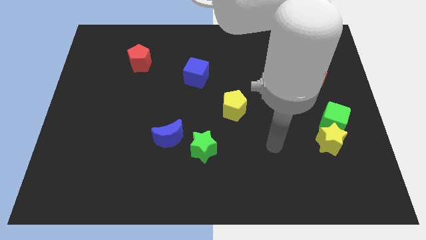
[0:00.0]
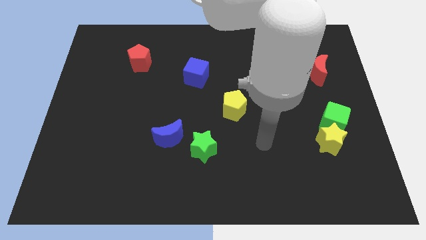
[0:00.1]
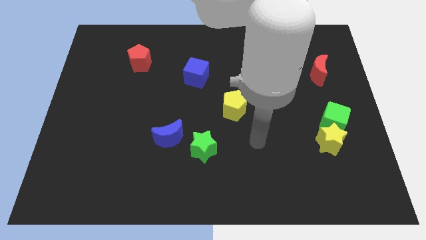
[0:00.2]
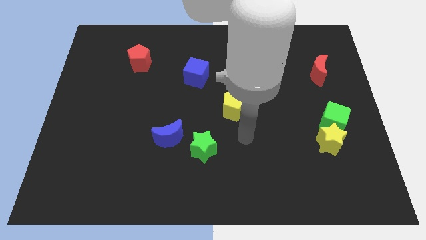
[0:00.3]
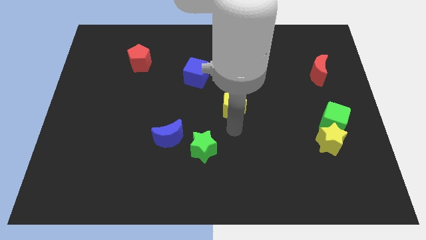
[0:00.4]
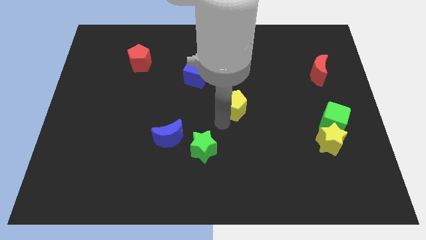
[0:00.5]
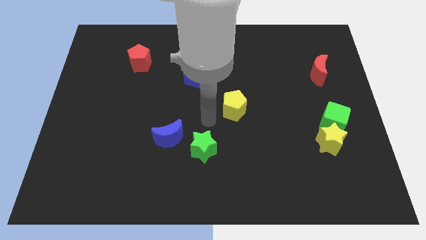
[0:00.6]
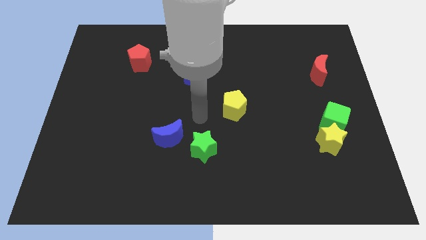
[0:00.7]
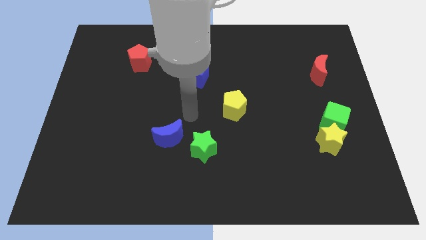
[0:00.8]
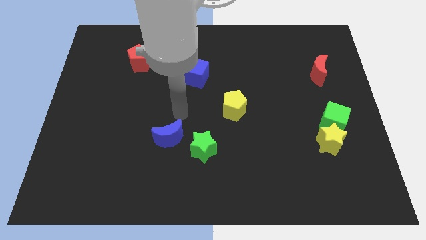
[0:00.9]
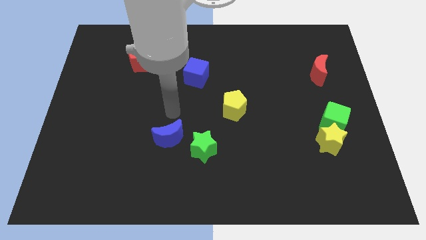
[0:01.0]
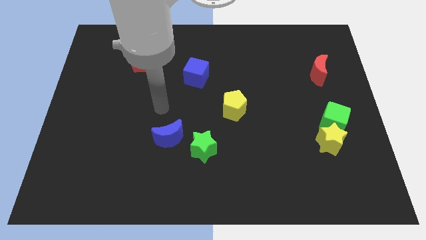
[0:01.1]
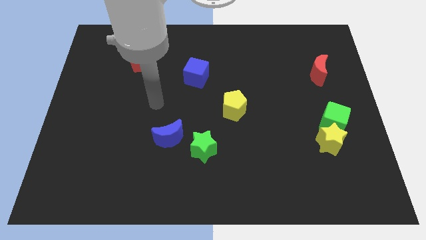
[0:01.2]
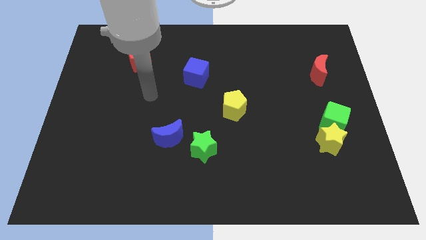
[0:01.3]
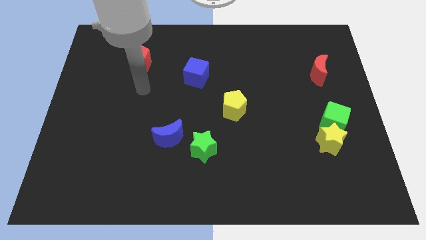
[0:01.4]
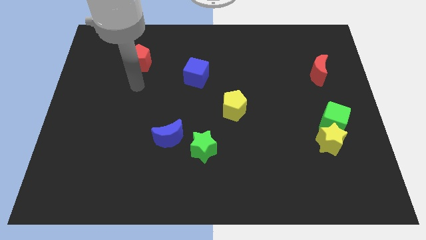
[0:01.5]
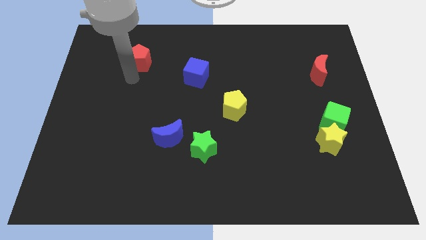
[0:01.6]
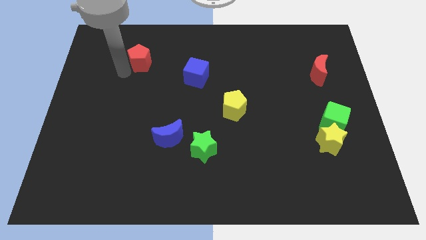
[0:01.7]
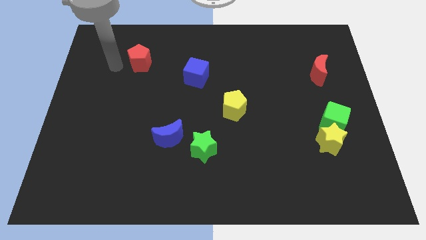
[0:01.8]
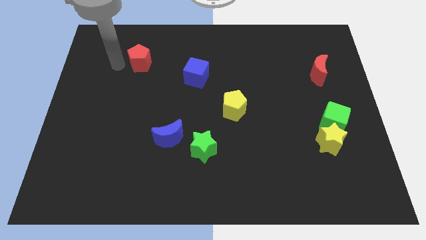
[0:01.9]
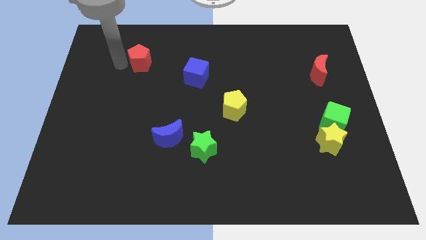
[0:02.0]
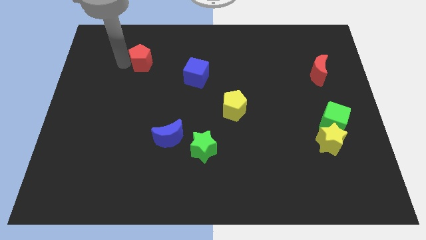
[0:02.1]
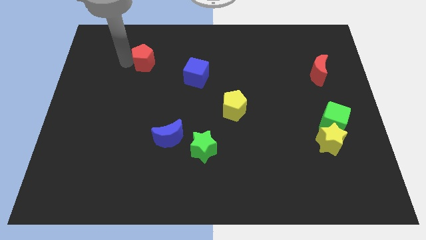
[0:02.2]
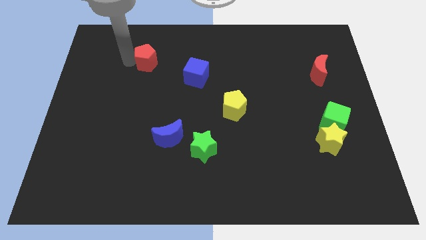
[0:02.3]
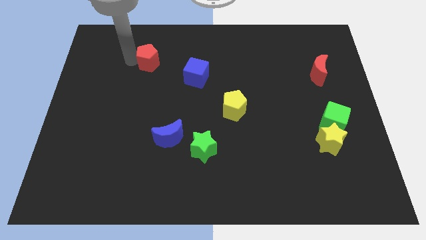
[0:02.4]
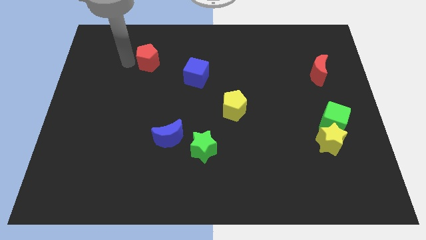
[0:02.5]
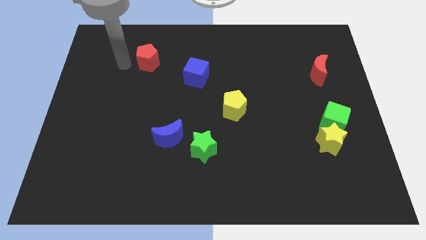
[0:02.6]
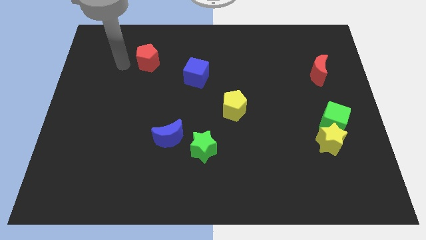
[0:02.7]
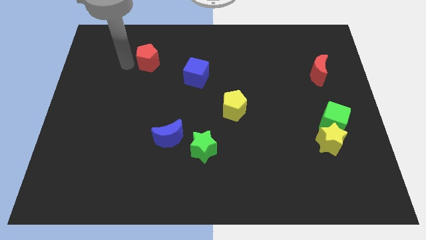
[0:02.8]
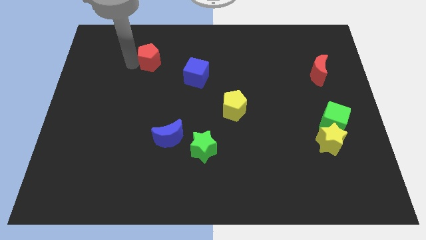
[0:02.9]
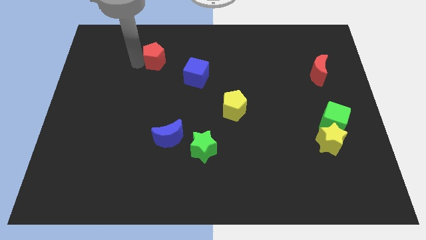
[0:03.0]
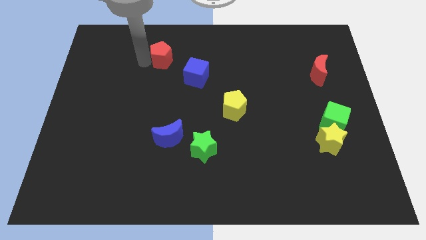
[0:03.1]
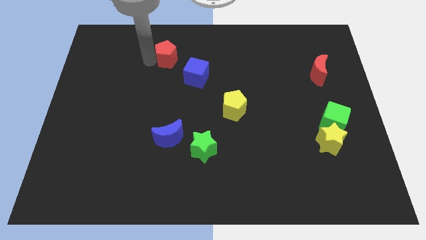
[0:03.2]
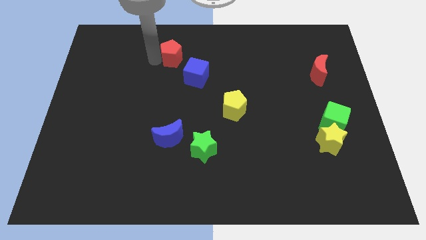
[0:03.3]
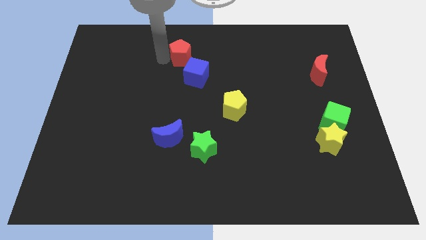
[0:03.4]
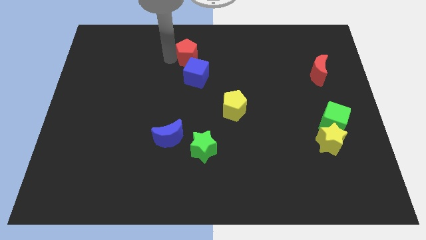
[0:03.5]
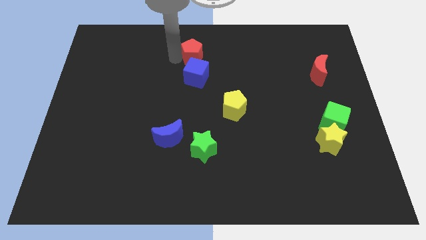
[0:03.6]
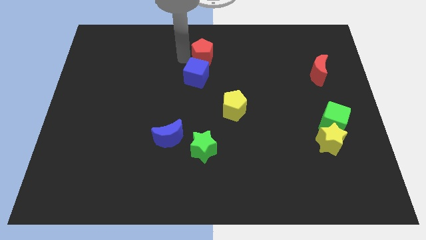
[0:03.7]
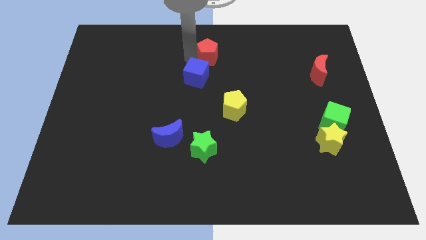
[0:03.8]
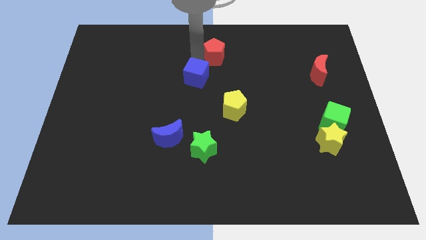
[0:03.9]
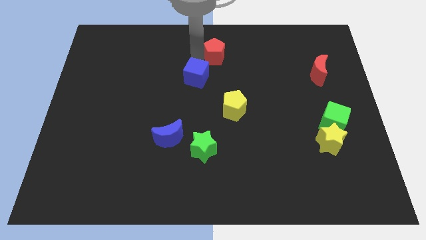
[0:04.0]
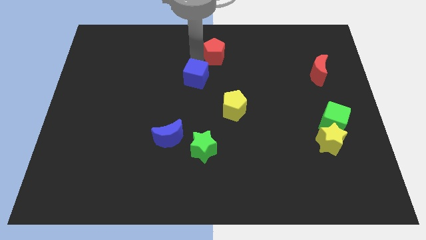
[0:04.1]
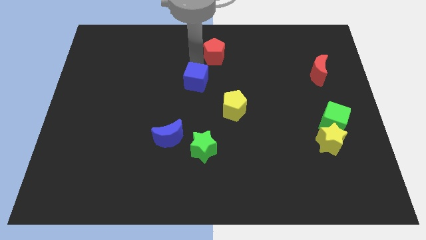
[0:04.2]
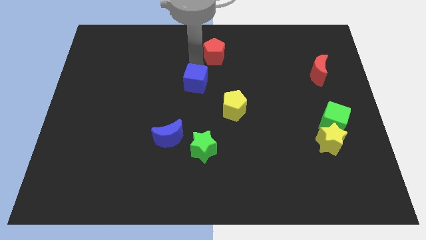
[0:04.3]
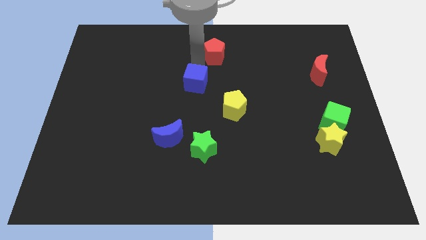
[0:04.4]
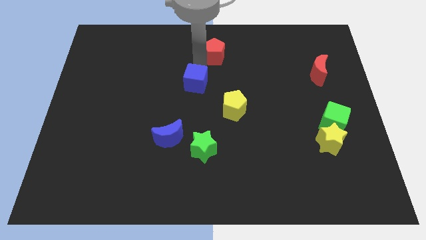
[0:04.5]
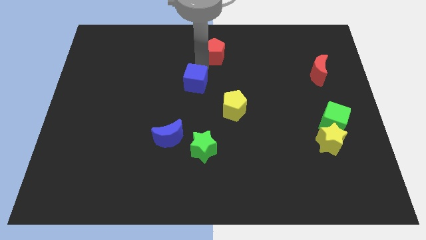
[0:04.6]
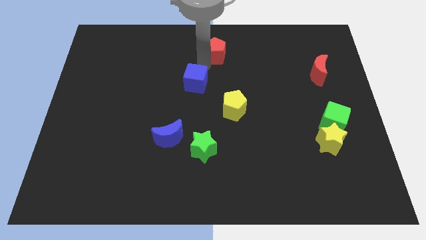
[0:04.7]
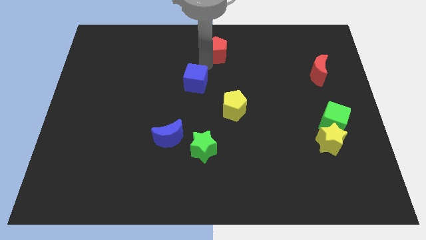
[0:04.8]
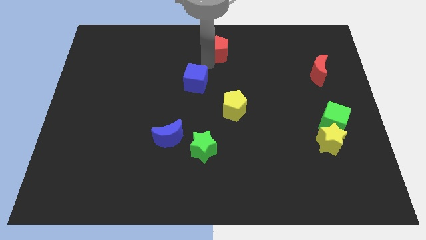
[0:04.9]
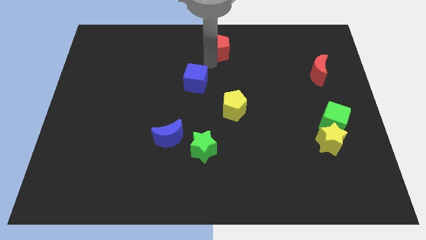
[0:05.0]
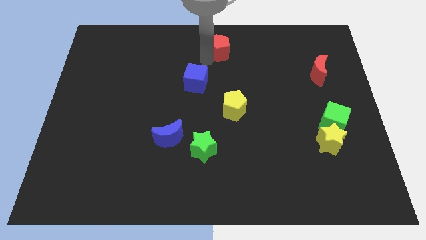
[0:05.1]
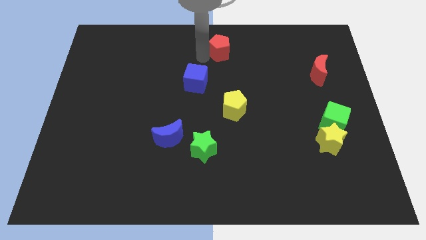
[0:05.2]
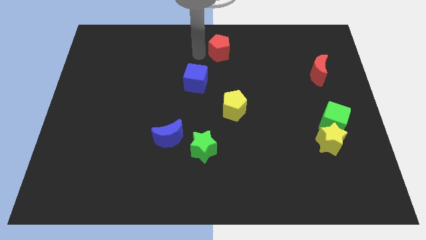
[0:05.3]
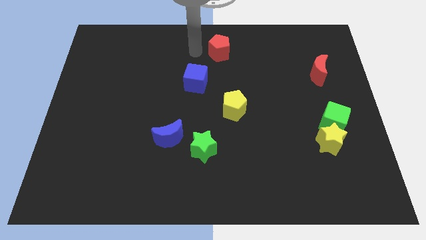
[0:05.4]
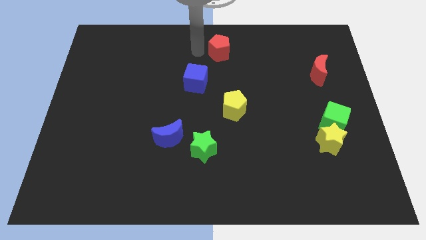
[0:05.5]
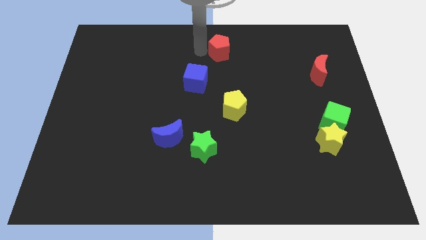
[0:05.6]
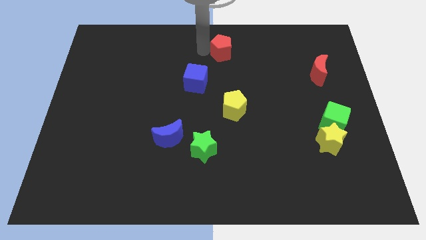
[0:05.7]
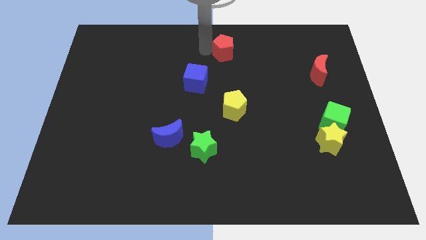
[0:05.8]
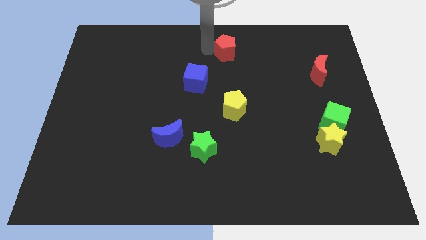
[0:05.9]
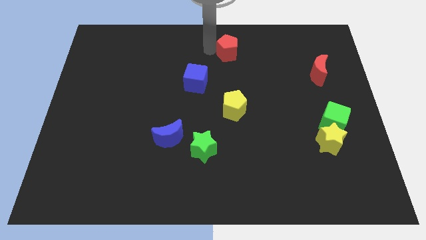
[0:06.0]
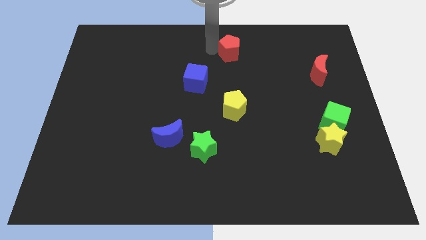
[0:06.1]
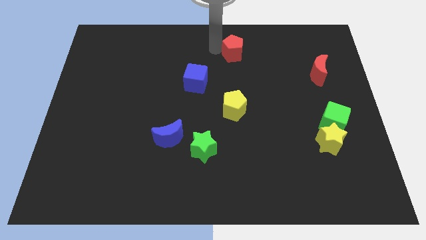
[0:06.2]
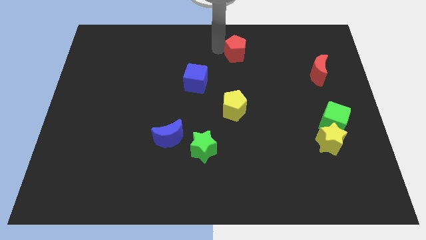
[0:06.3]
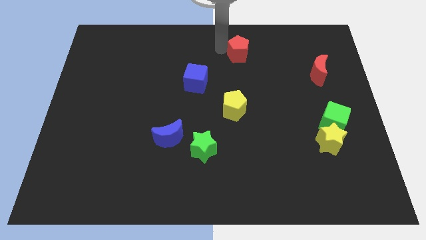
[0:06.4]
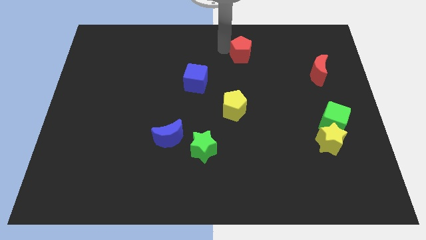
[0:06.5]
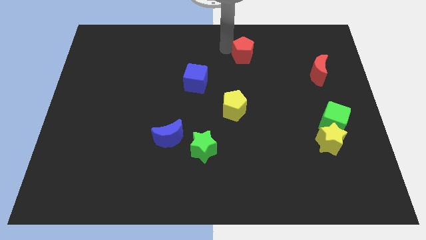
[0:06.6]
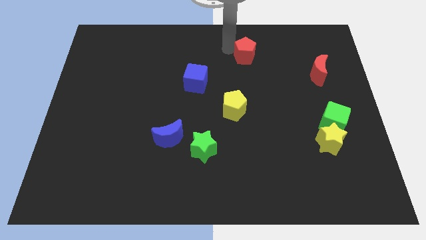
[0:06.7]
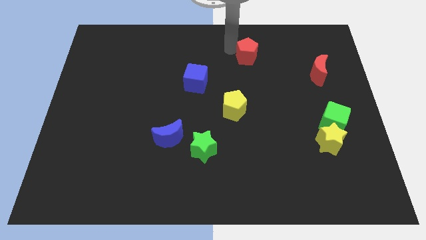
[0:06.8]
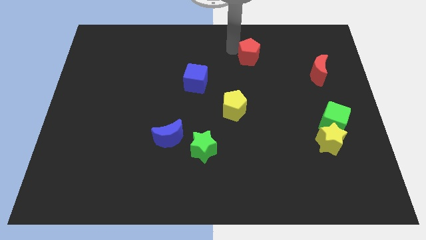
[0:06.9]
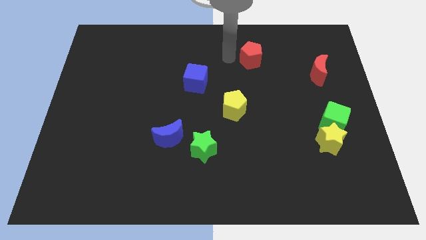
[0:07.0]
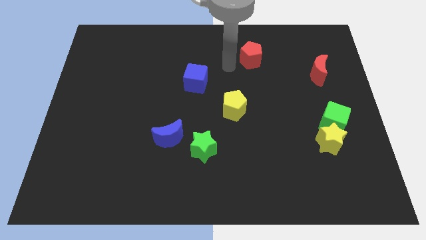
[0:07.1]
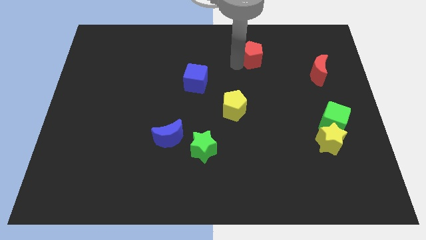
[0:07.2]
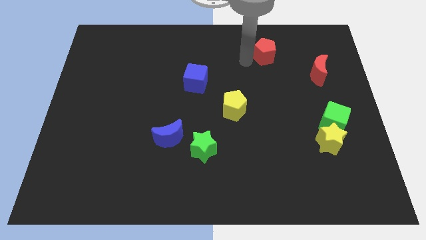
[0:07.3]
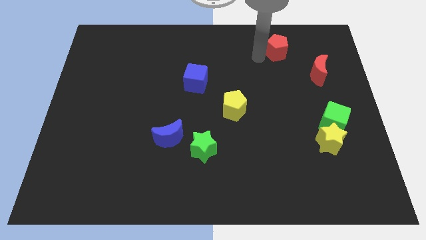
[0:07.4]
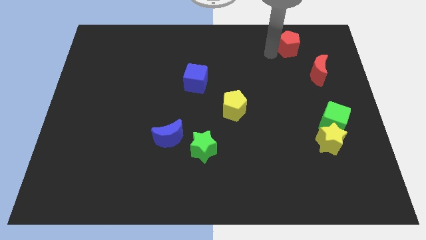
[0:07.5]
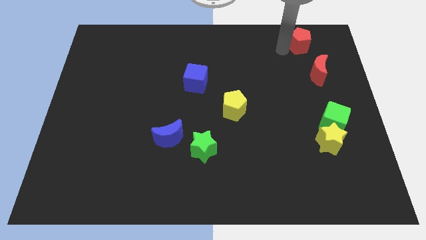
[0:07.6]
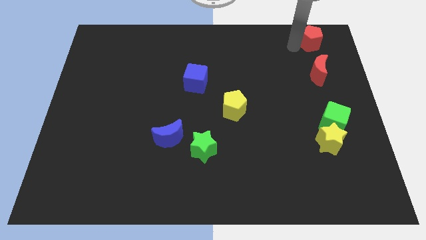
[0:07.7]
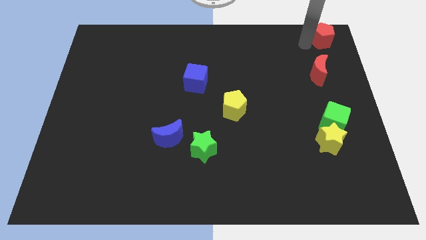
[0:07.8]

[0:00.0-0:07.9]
push the red pentagon to the top right
